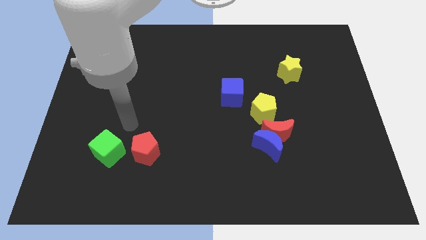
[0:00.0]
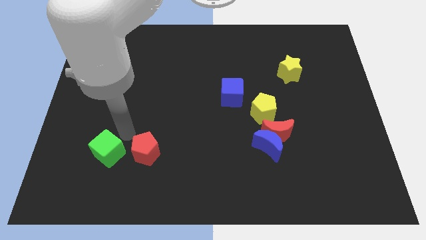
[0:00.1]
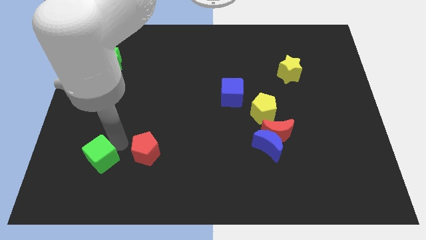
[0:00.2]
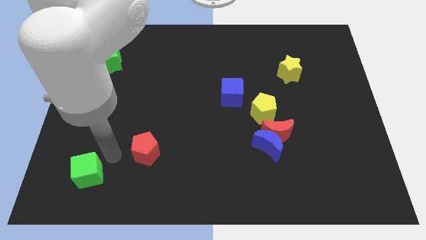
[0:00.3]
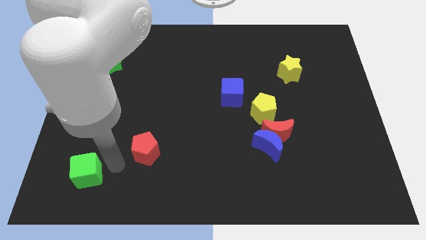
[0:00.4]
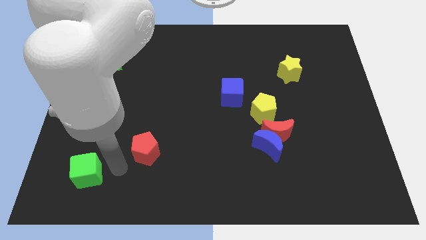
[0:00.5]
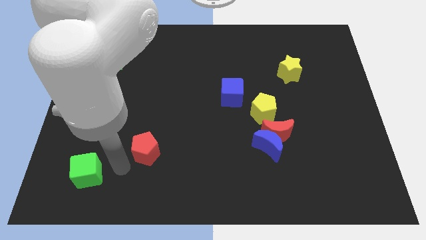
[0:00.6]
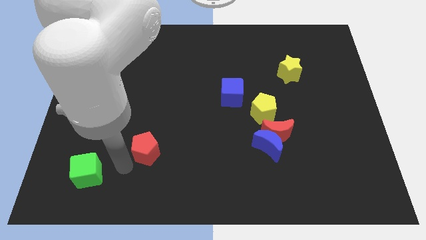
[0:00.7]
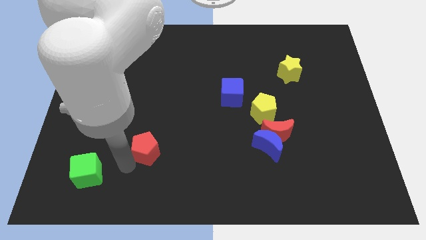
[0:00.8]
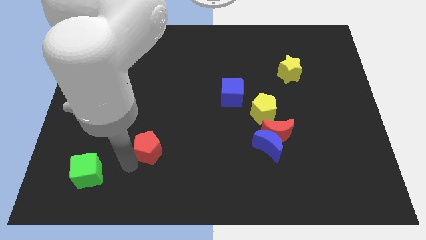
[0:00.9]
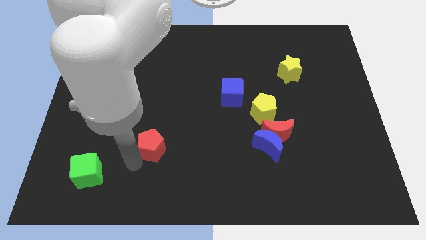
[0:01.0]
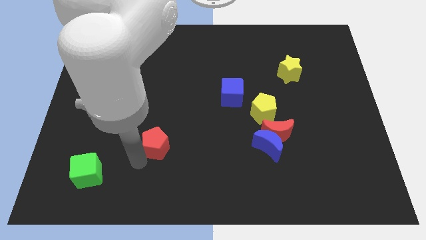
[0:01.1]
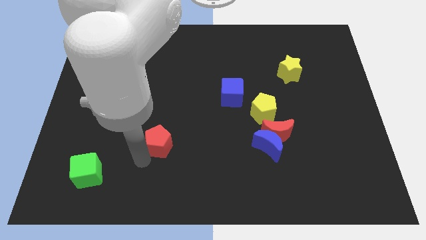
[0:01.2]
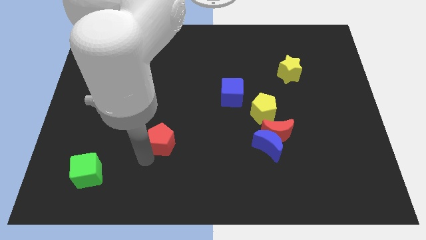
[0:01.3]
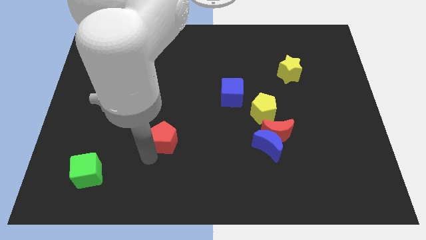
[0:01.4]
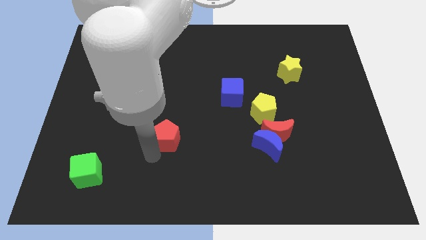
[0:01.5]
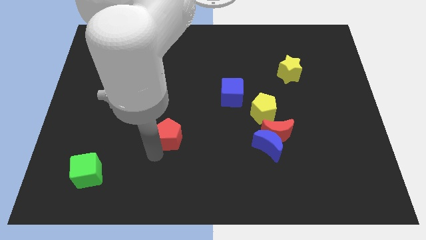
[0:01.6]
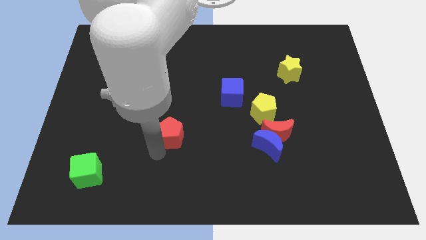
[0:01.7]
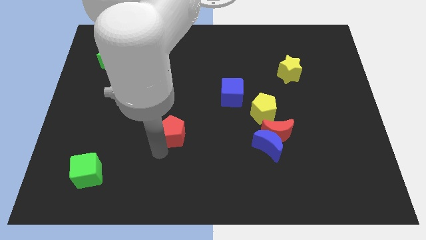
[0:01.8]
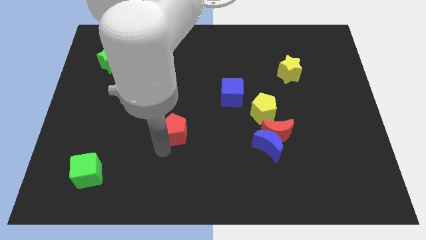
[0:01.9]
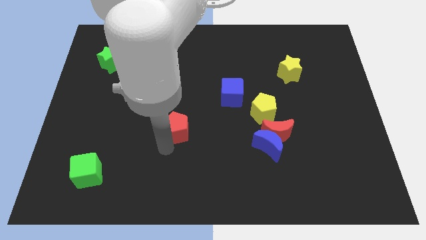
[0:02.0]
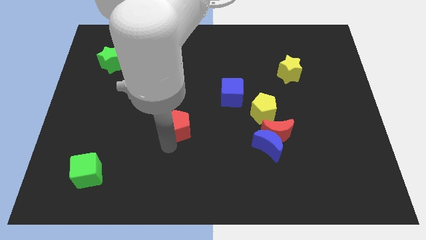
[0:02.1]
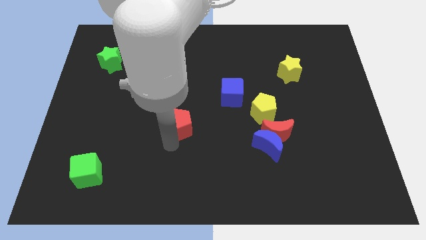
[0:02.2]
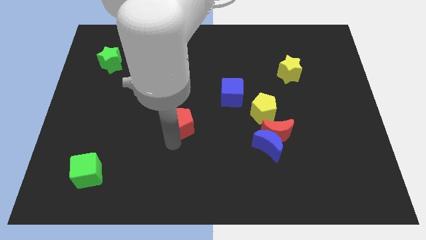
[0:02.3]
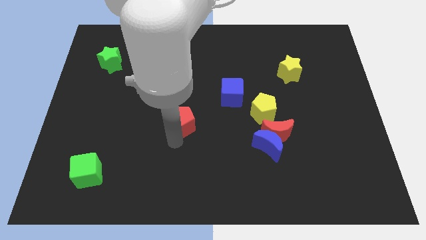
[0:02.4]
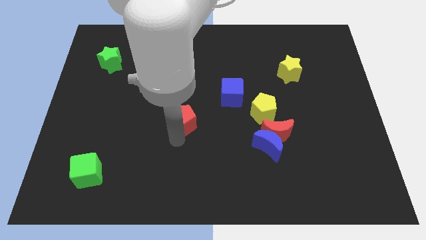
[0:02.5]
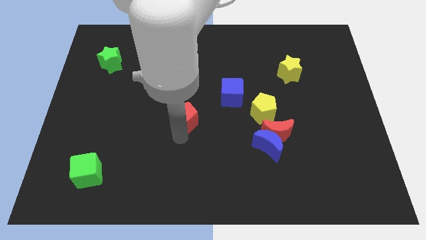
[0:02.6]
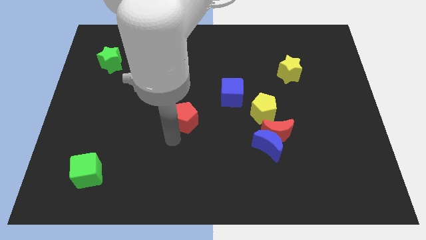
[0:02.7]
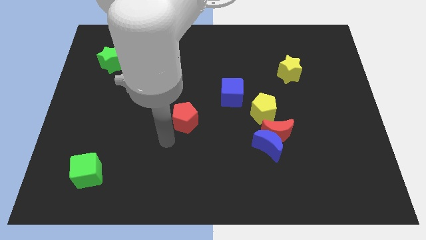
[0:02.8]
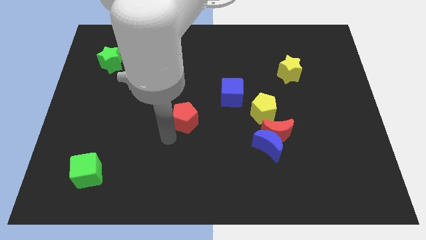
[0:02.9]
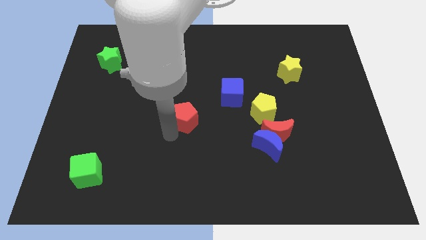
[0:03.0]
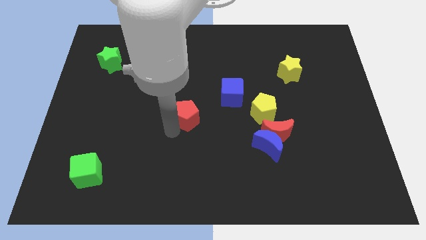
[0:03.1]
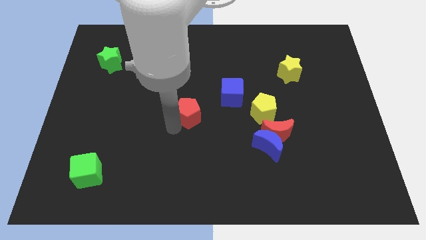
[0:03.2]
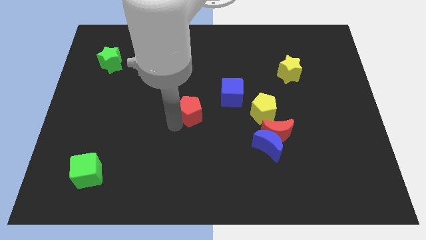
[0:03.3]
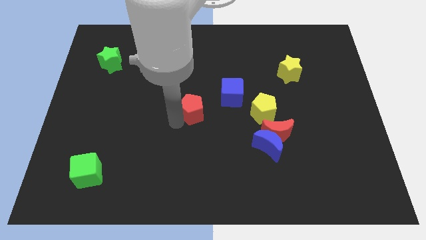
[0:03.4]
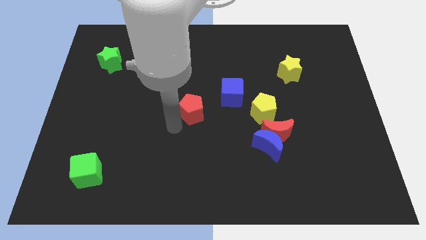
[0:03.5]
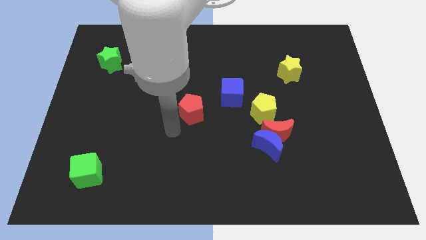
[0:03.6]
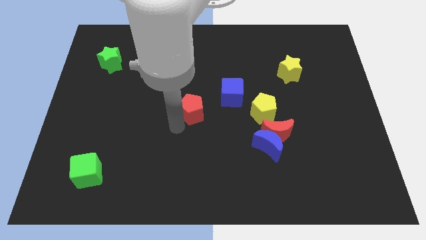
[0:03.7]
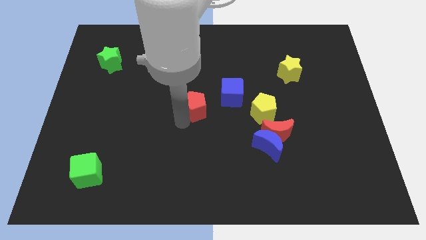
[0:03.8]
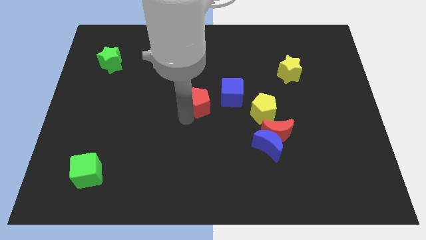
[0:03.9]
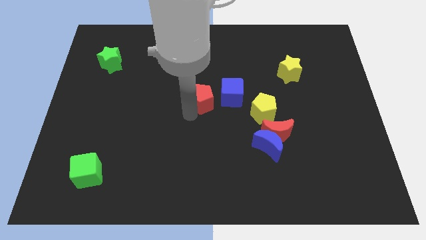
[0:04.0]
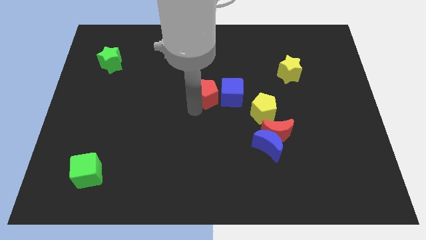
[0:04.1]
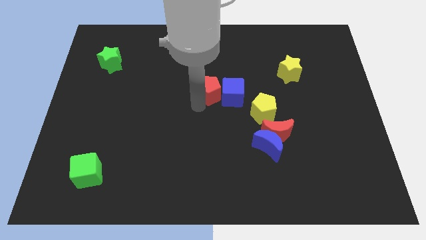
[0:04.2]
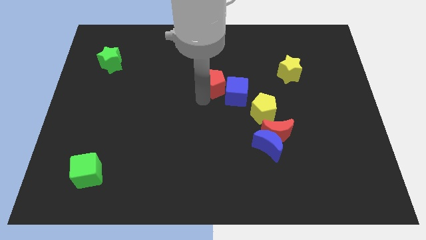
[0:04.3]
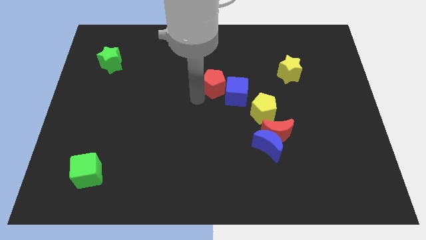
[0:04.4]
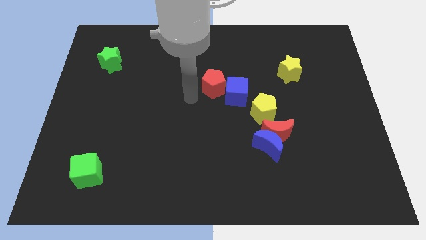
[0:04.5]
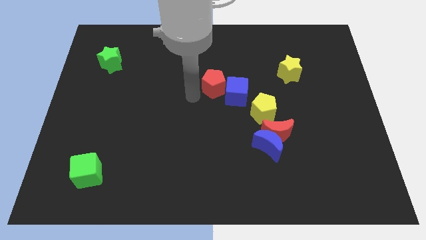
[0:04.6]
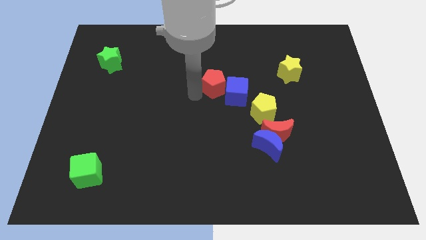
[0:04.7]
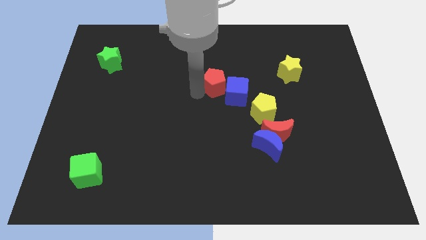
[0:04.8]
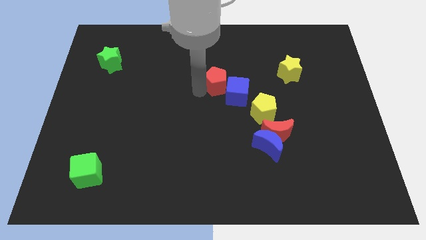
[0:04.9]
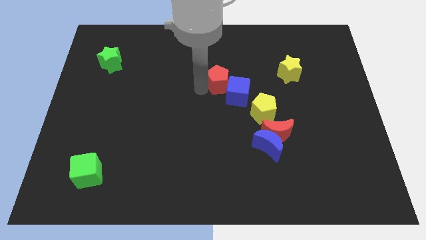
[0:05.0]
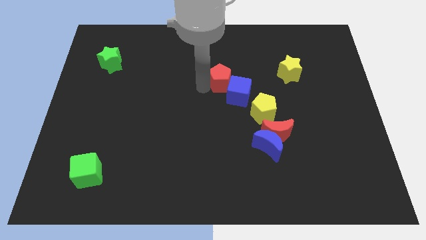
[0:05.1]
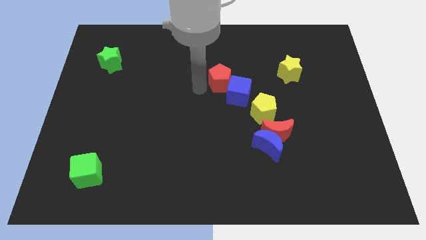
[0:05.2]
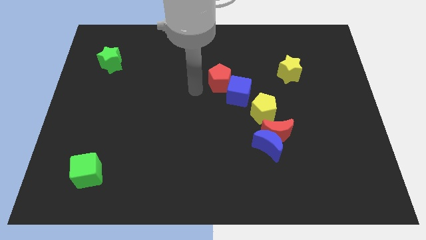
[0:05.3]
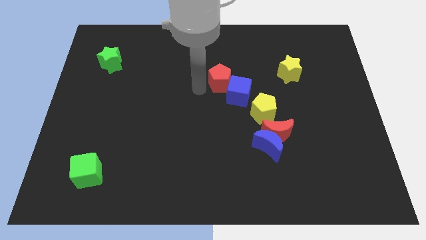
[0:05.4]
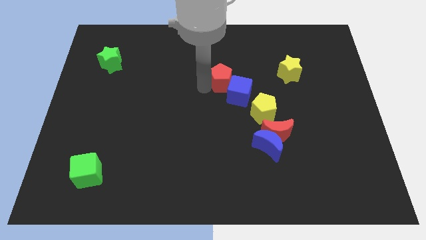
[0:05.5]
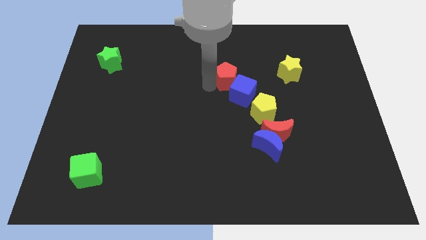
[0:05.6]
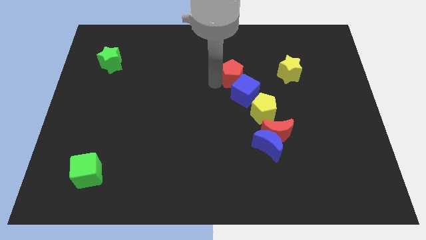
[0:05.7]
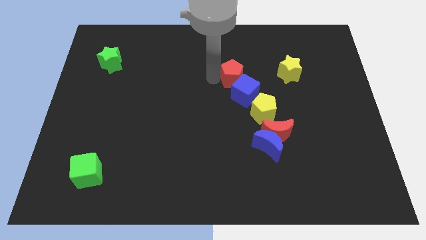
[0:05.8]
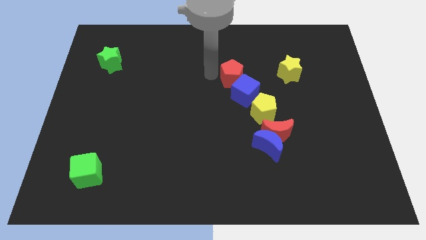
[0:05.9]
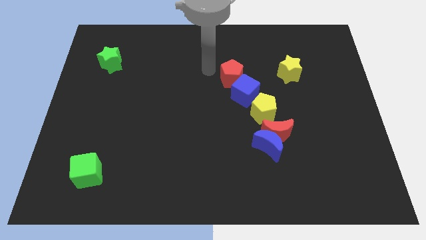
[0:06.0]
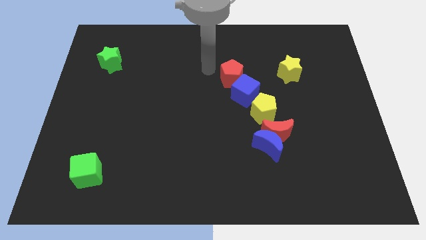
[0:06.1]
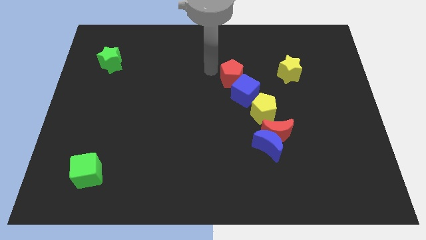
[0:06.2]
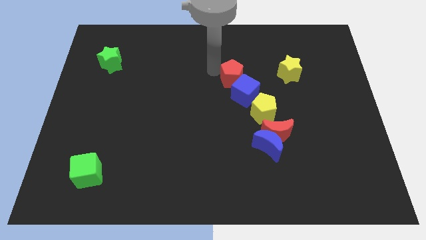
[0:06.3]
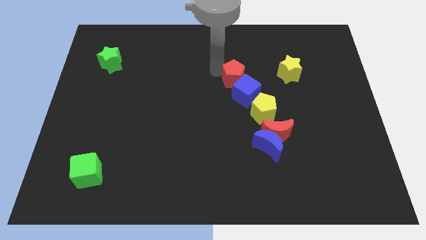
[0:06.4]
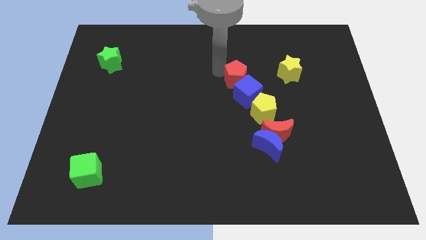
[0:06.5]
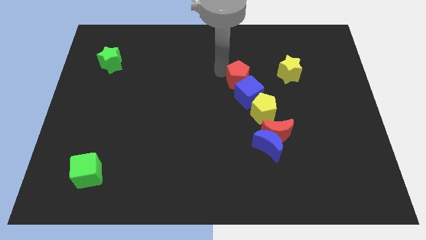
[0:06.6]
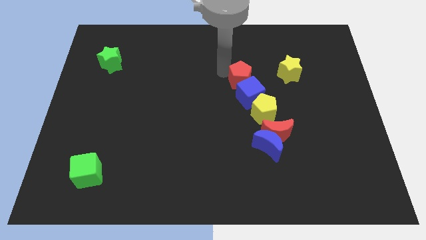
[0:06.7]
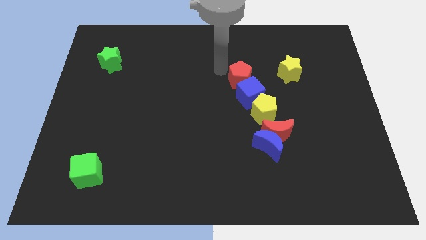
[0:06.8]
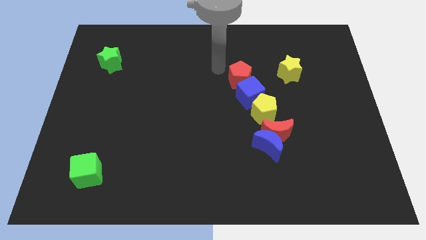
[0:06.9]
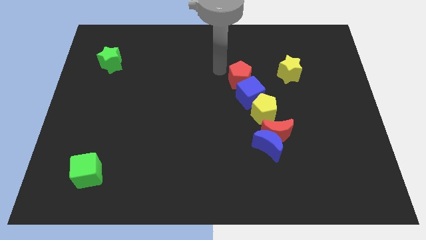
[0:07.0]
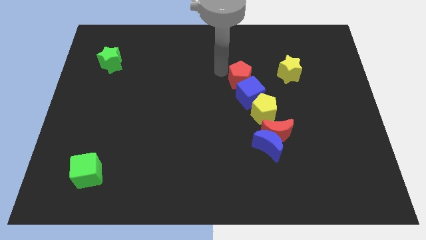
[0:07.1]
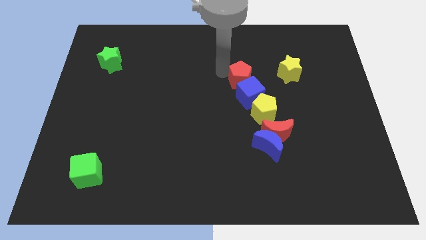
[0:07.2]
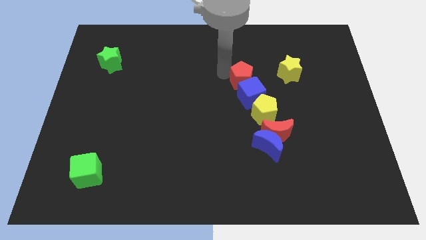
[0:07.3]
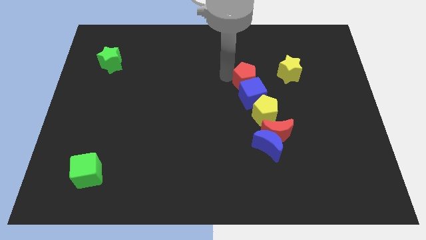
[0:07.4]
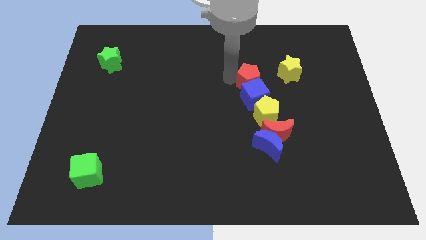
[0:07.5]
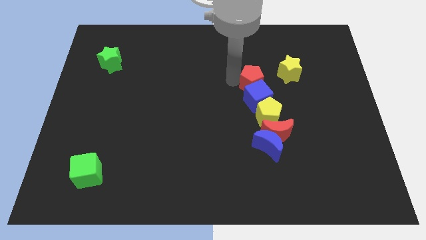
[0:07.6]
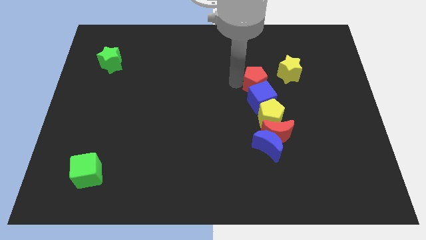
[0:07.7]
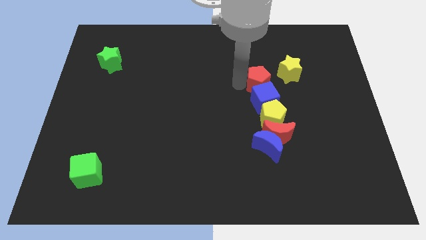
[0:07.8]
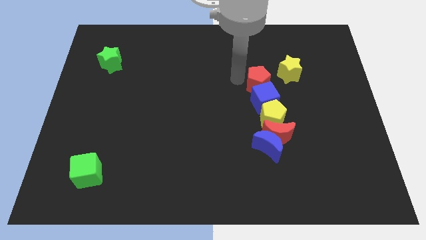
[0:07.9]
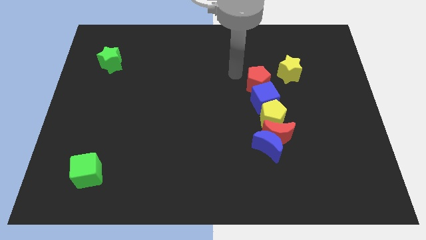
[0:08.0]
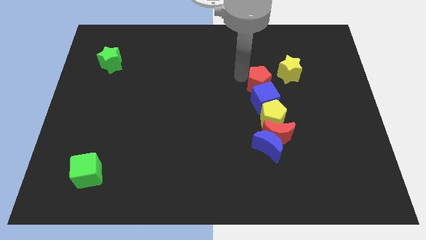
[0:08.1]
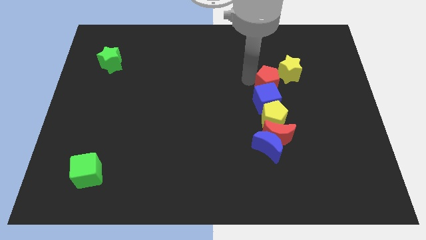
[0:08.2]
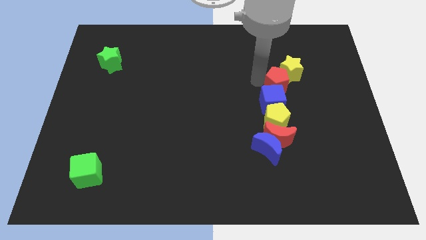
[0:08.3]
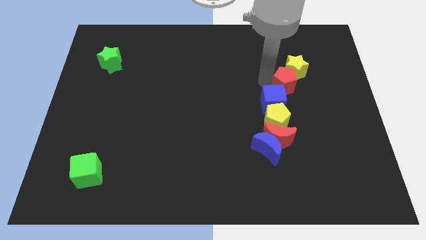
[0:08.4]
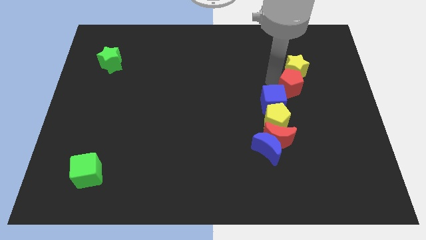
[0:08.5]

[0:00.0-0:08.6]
put the red pentagon diagonally up and to the right of the yellow pentagon
